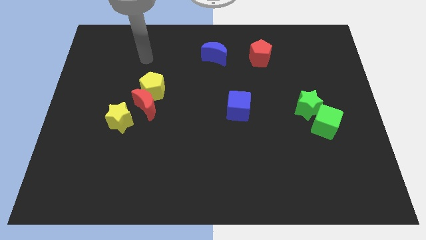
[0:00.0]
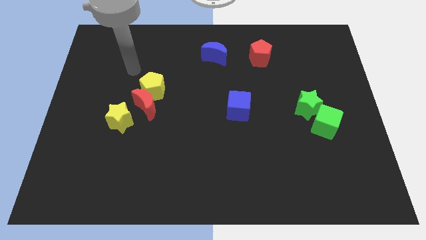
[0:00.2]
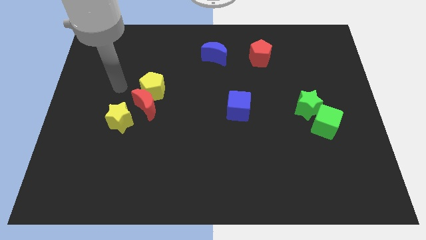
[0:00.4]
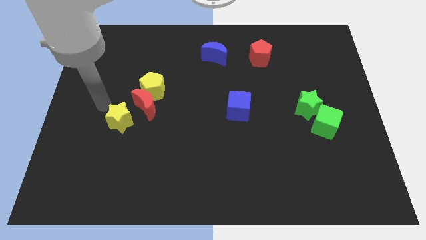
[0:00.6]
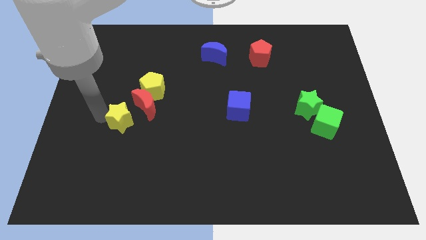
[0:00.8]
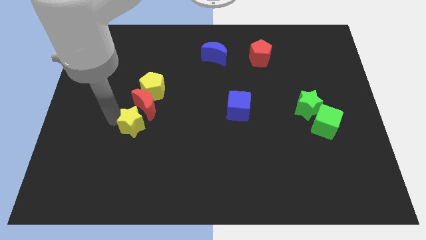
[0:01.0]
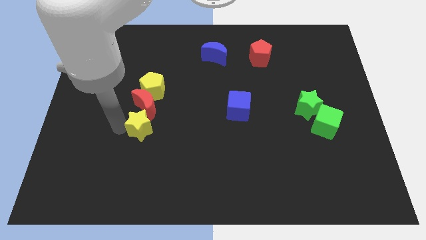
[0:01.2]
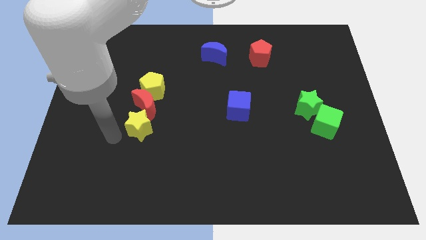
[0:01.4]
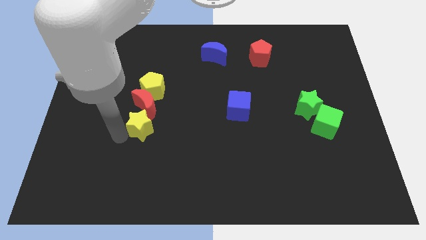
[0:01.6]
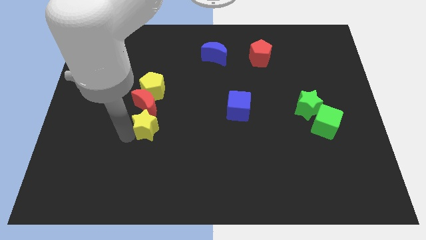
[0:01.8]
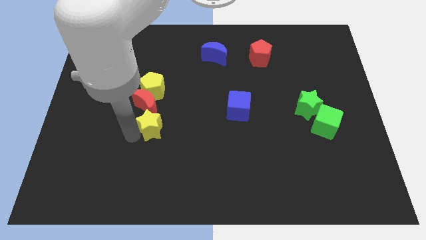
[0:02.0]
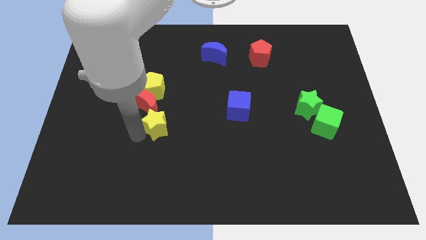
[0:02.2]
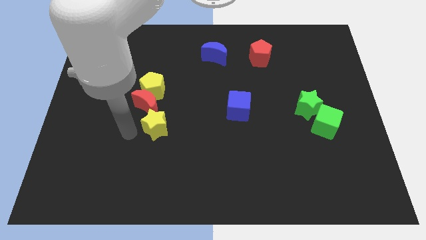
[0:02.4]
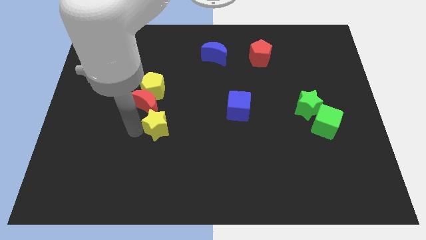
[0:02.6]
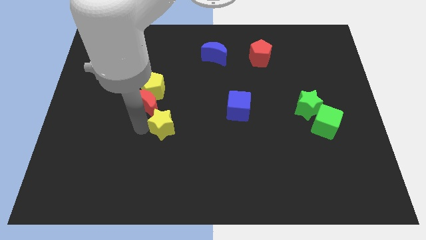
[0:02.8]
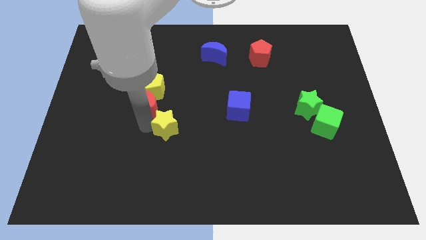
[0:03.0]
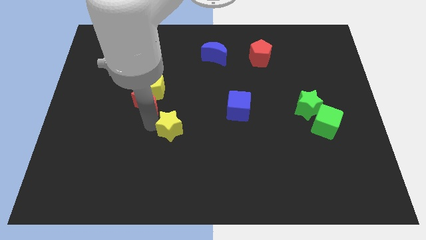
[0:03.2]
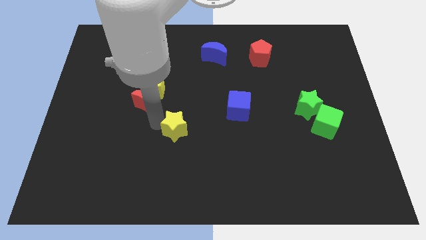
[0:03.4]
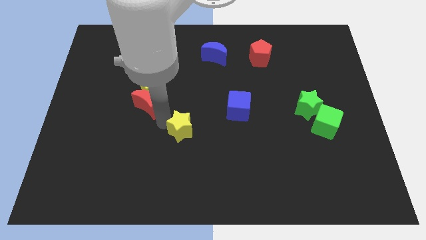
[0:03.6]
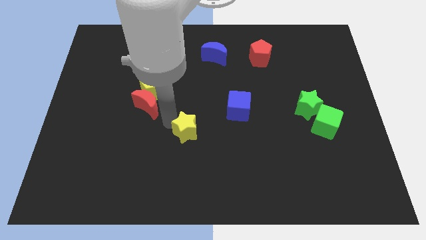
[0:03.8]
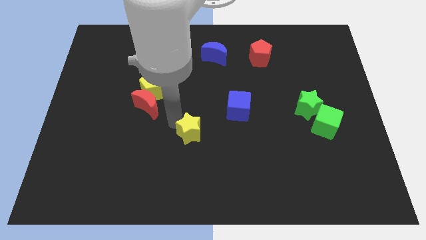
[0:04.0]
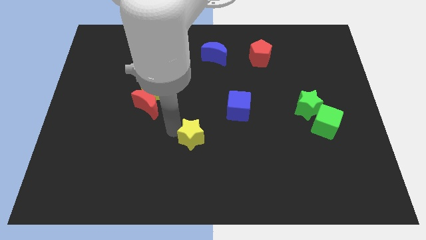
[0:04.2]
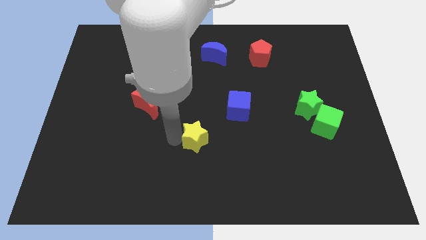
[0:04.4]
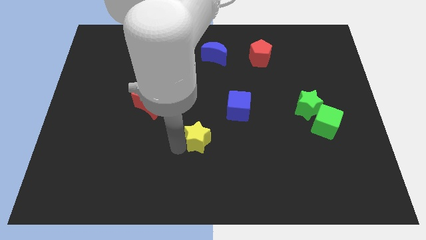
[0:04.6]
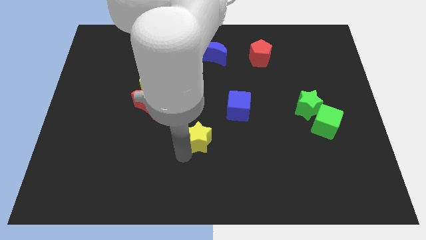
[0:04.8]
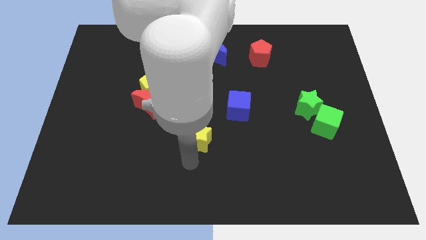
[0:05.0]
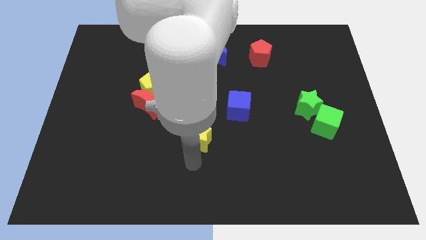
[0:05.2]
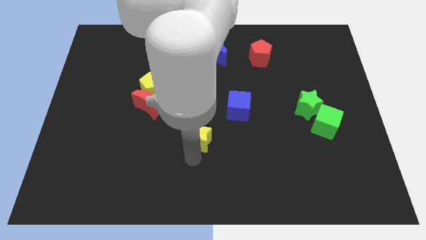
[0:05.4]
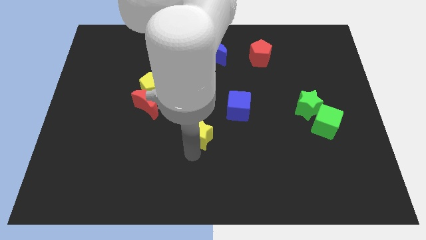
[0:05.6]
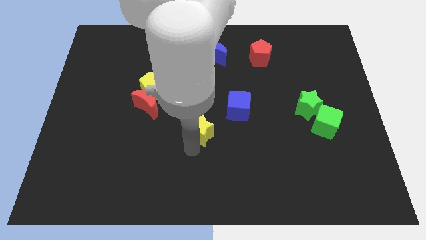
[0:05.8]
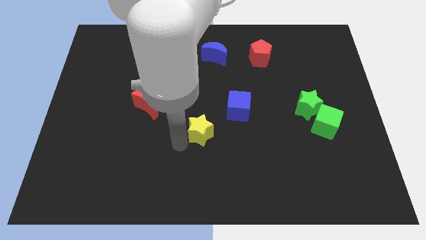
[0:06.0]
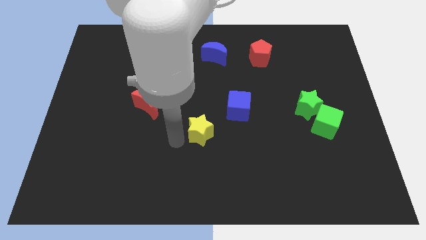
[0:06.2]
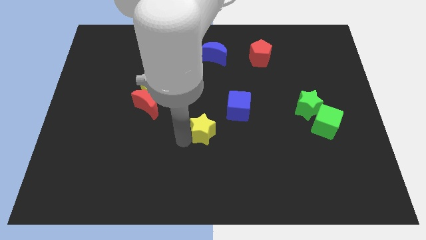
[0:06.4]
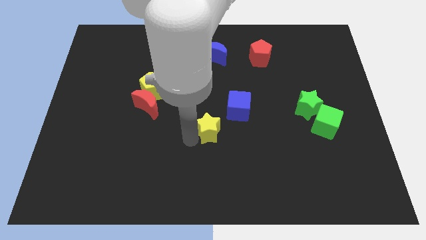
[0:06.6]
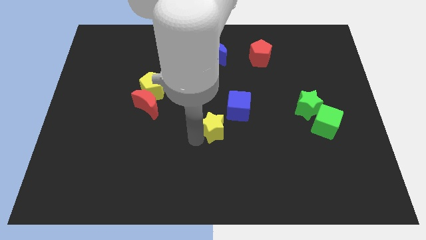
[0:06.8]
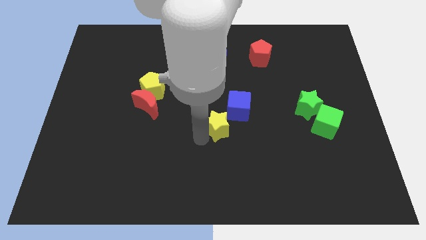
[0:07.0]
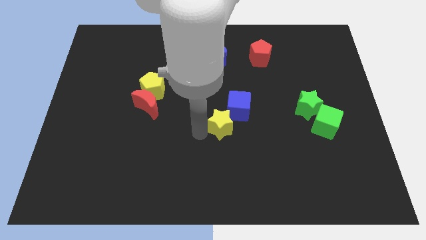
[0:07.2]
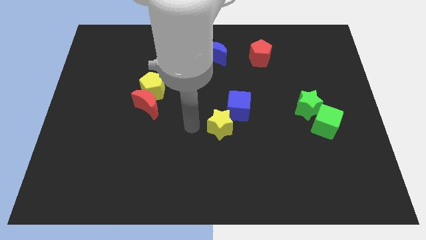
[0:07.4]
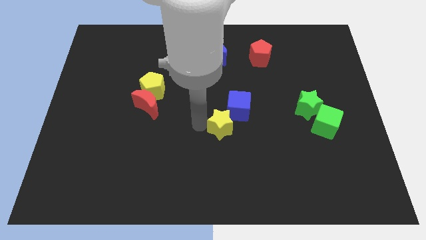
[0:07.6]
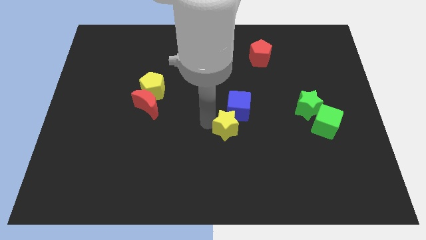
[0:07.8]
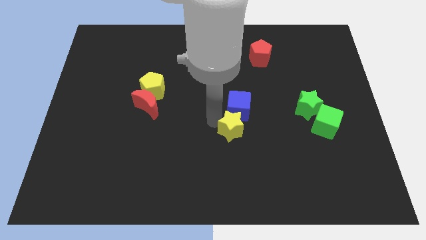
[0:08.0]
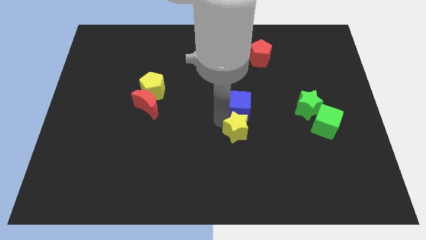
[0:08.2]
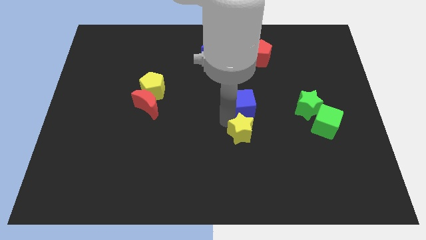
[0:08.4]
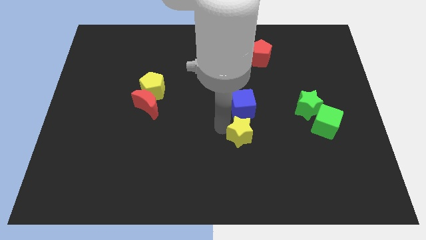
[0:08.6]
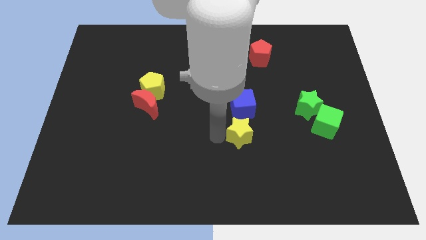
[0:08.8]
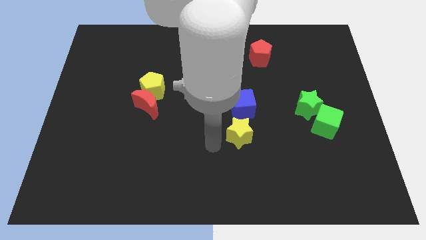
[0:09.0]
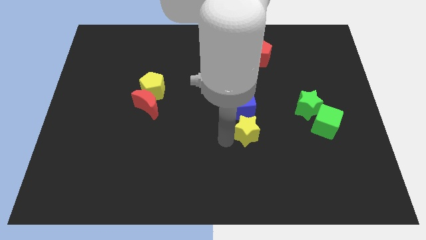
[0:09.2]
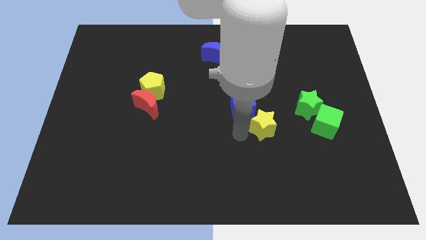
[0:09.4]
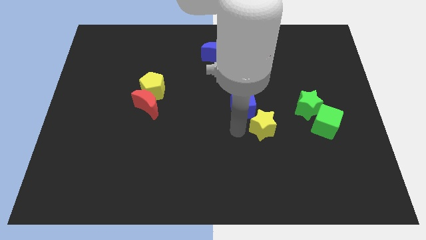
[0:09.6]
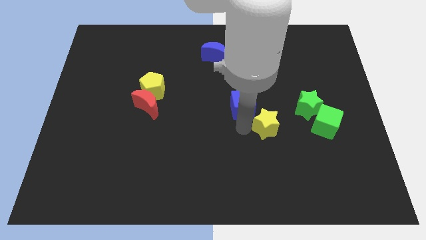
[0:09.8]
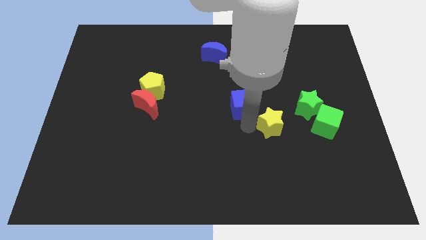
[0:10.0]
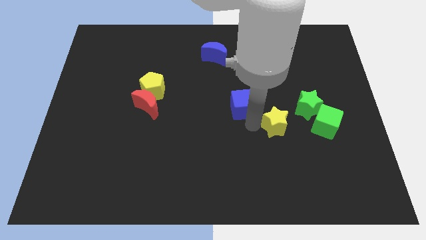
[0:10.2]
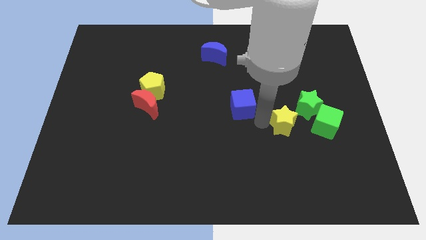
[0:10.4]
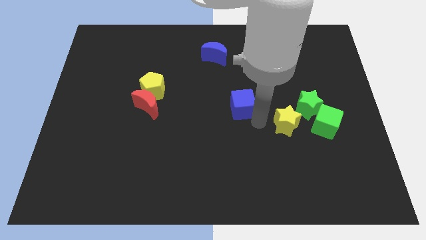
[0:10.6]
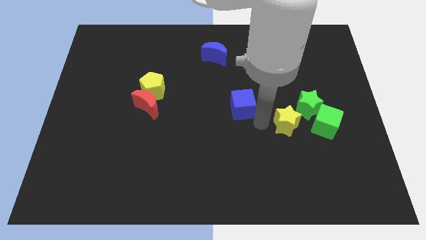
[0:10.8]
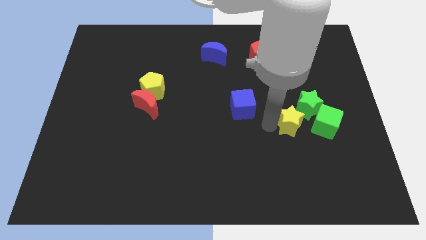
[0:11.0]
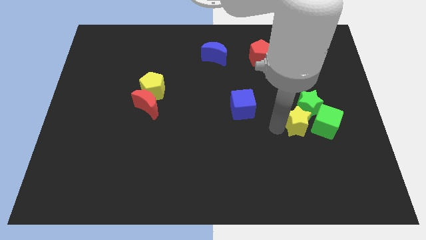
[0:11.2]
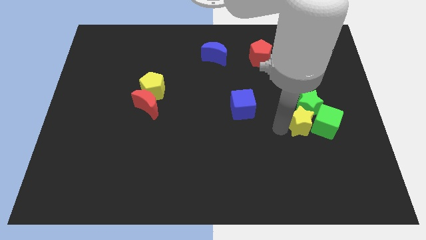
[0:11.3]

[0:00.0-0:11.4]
put the yellow star next to the green cube

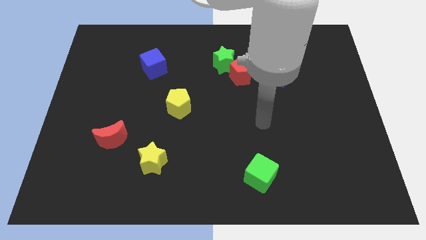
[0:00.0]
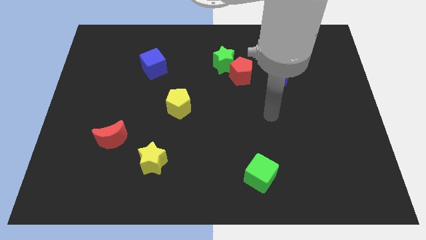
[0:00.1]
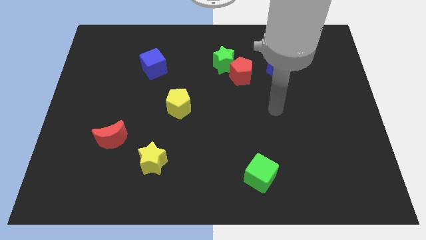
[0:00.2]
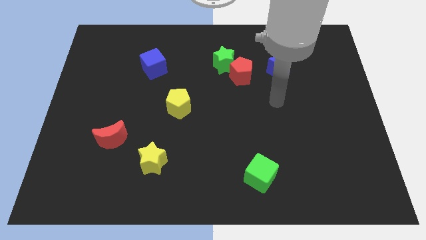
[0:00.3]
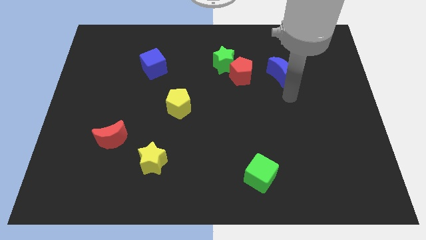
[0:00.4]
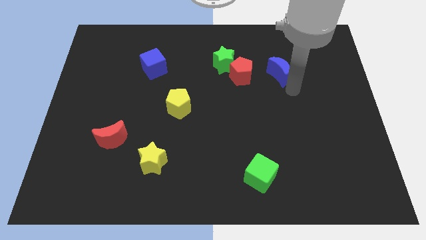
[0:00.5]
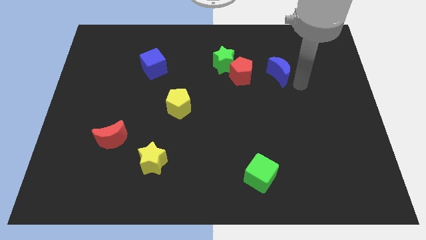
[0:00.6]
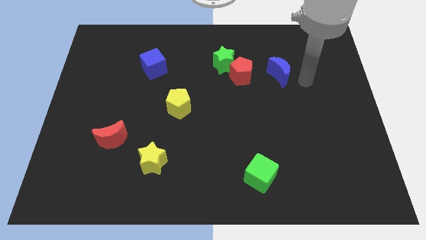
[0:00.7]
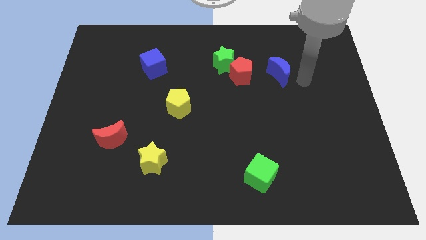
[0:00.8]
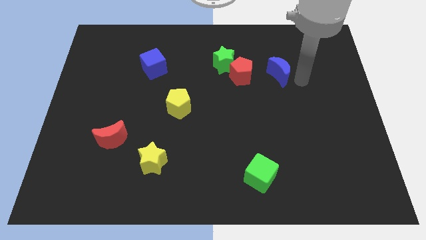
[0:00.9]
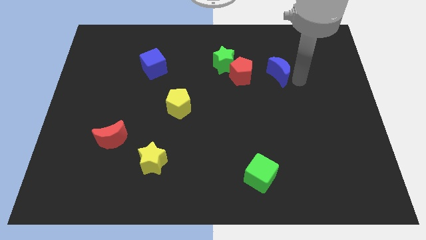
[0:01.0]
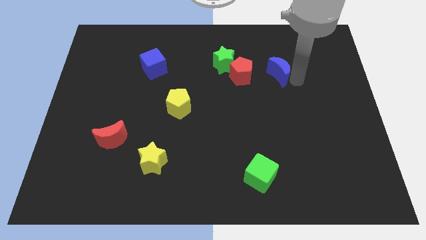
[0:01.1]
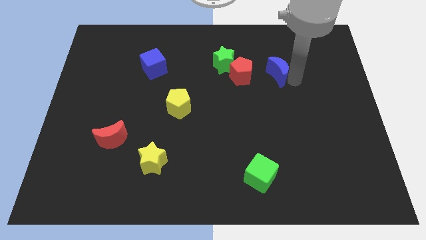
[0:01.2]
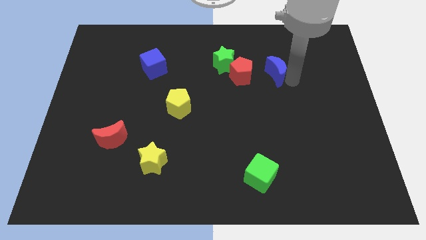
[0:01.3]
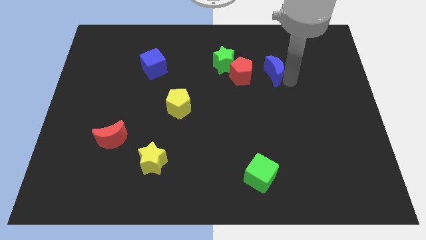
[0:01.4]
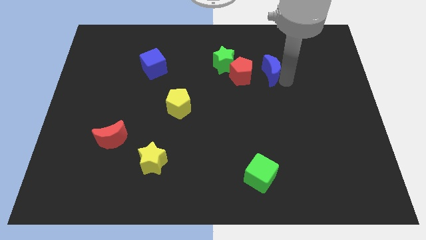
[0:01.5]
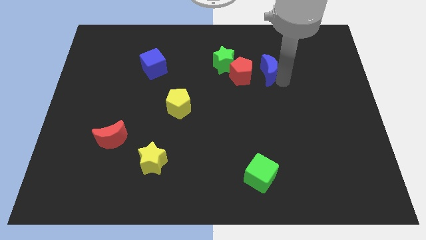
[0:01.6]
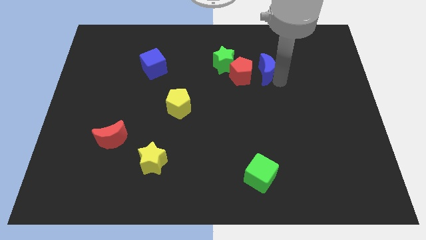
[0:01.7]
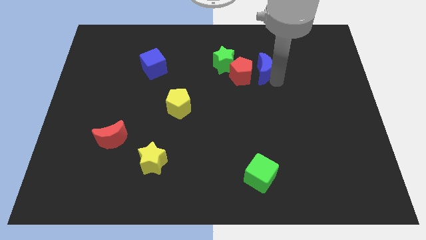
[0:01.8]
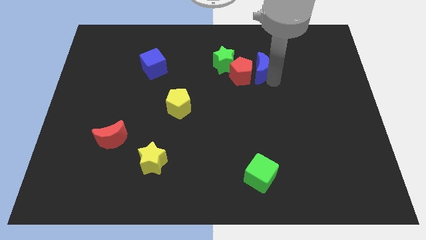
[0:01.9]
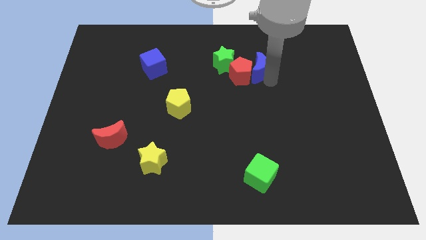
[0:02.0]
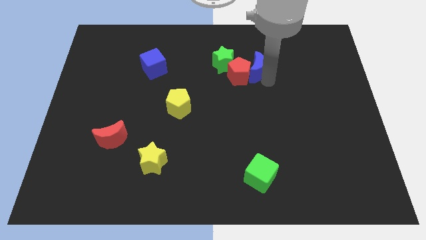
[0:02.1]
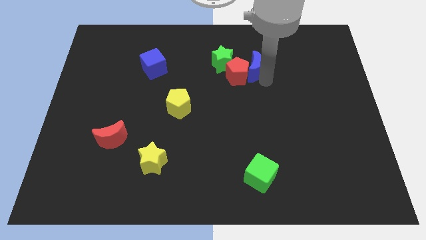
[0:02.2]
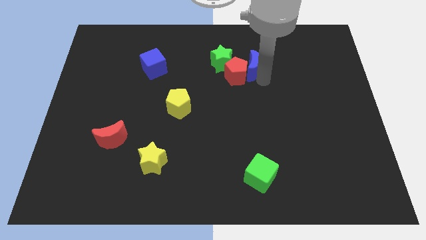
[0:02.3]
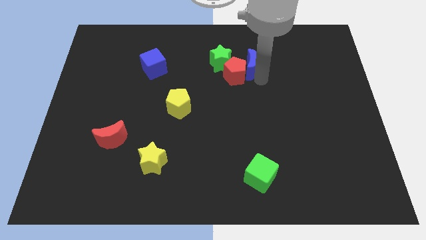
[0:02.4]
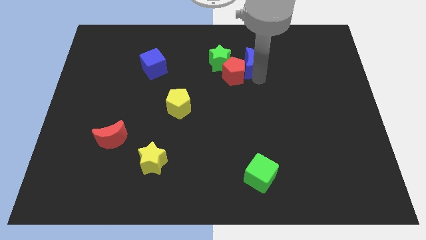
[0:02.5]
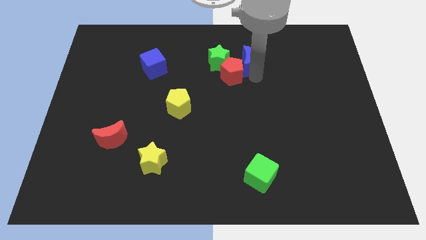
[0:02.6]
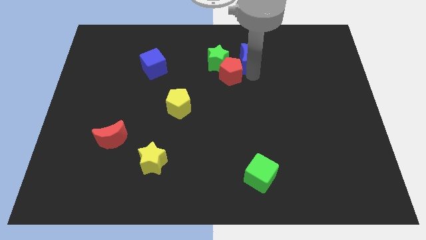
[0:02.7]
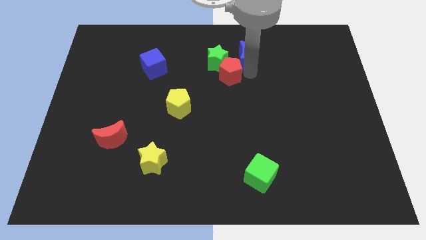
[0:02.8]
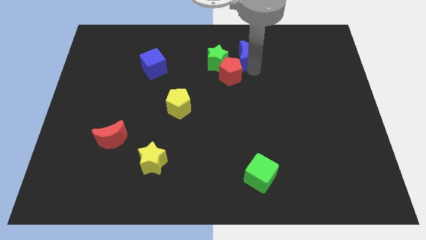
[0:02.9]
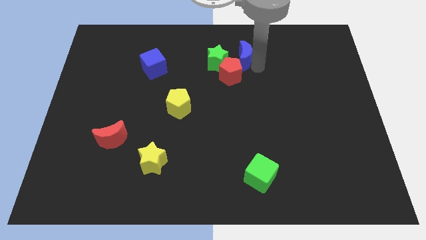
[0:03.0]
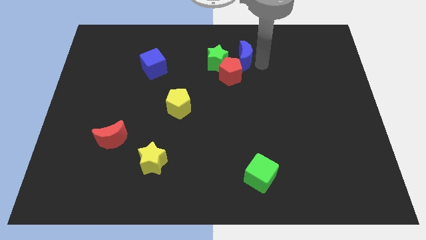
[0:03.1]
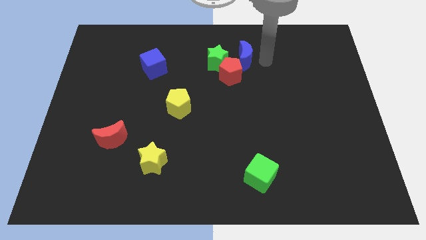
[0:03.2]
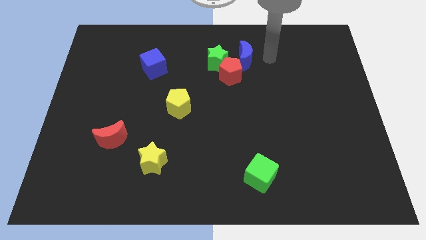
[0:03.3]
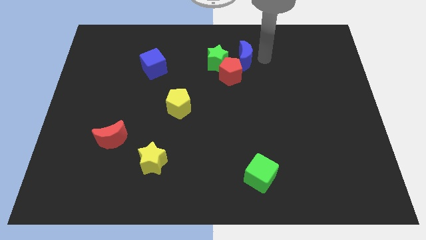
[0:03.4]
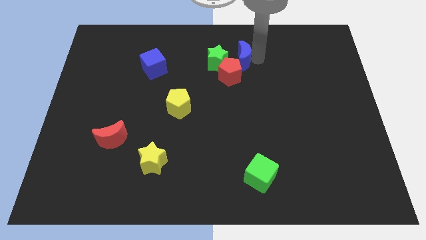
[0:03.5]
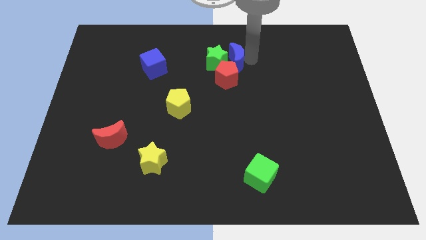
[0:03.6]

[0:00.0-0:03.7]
slide the blue moon next to the green star
